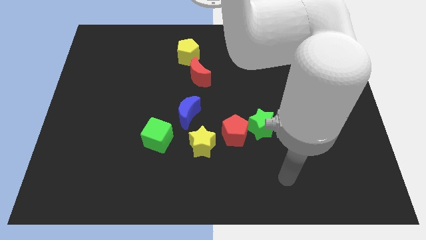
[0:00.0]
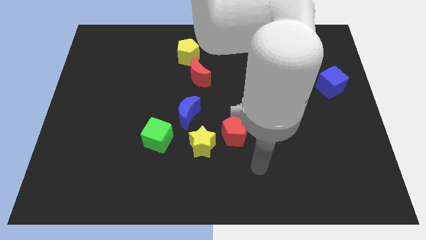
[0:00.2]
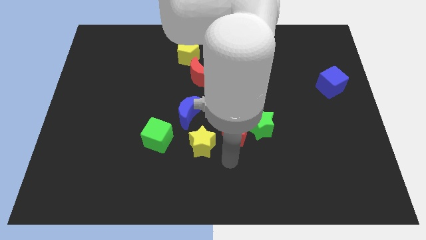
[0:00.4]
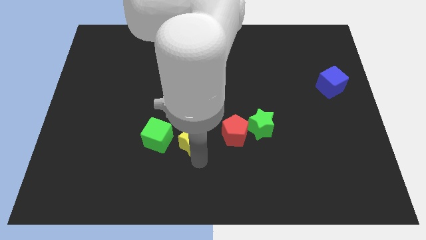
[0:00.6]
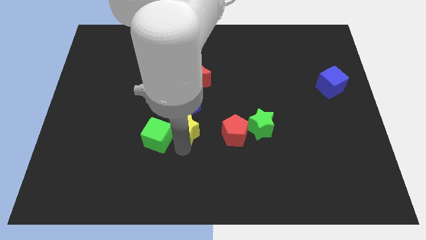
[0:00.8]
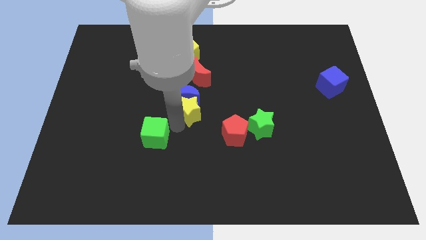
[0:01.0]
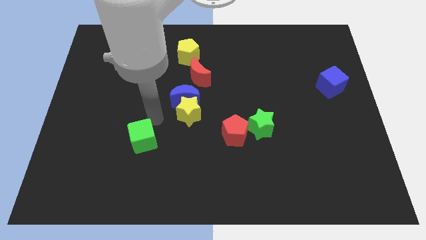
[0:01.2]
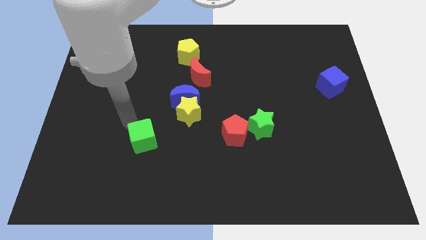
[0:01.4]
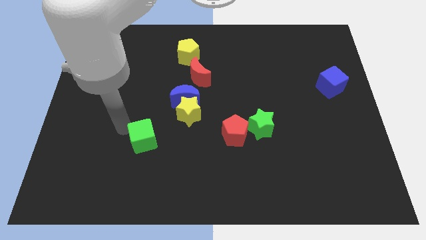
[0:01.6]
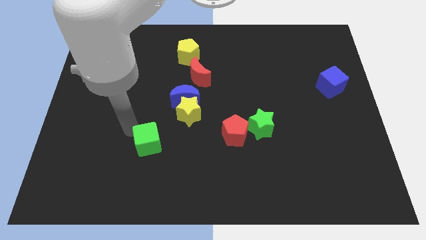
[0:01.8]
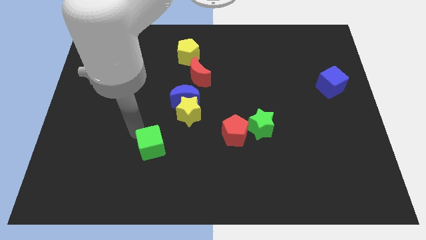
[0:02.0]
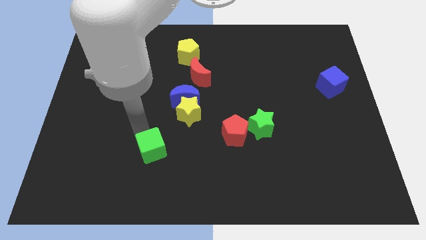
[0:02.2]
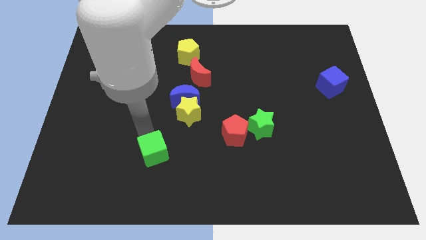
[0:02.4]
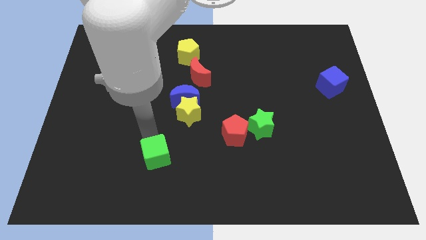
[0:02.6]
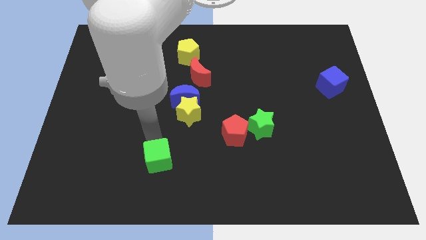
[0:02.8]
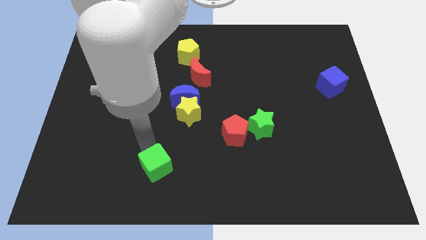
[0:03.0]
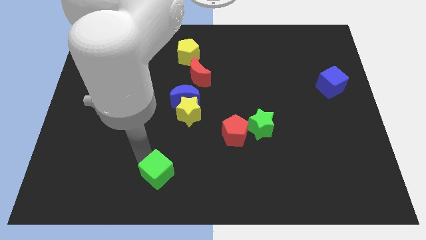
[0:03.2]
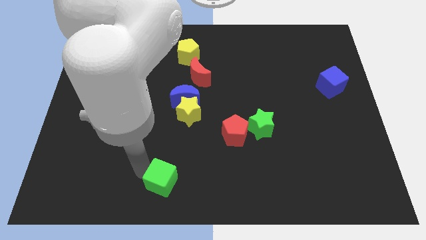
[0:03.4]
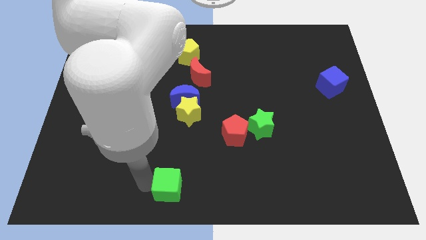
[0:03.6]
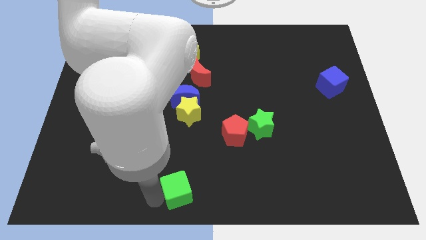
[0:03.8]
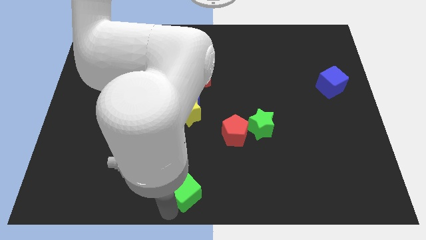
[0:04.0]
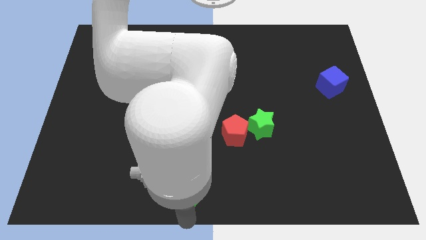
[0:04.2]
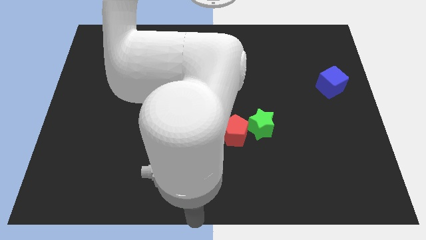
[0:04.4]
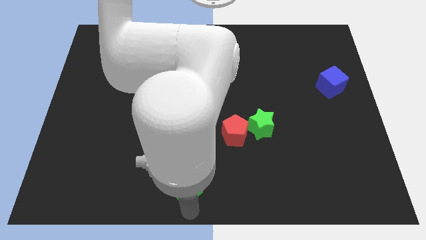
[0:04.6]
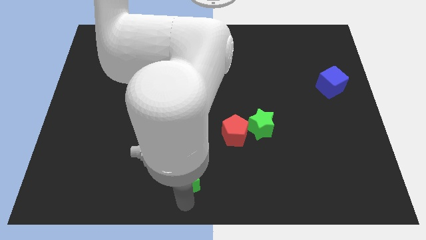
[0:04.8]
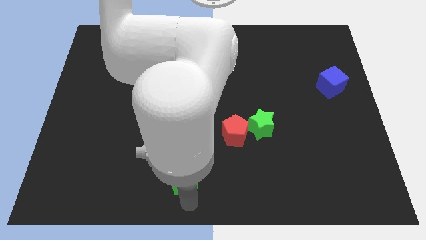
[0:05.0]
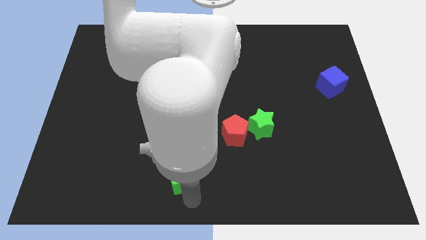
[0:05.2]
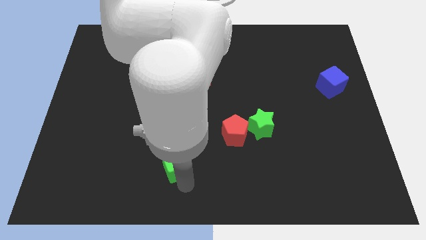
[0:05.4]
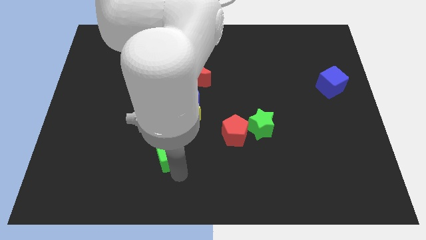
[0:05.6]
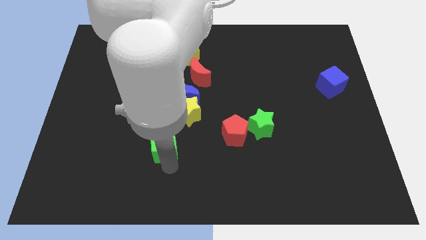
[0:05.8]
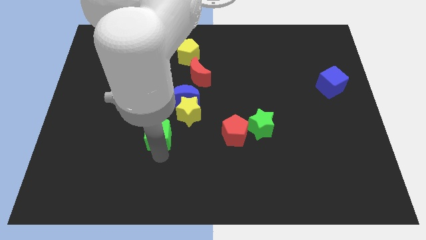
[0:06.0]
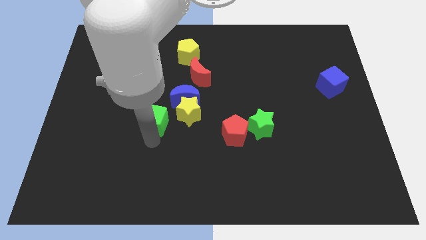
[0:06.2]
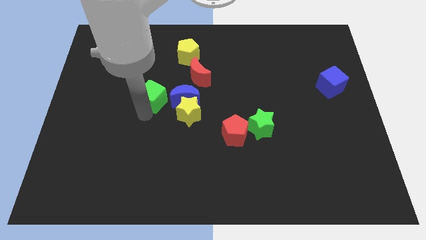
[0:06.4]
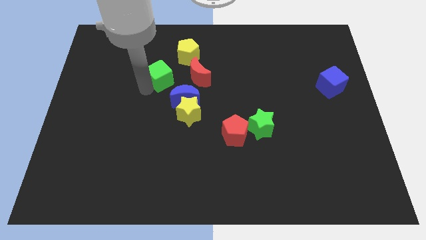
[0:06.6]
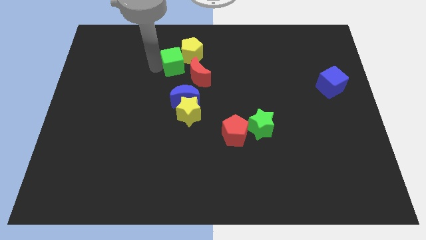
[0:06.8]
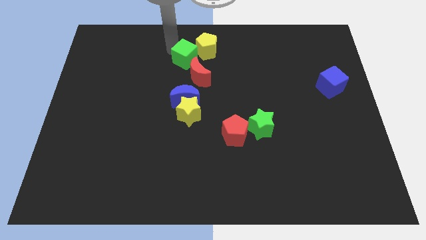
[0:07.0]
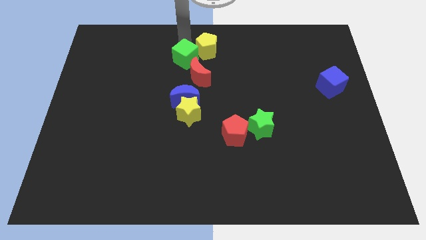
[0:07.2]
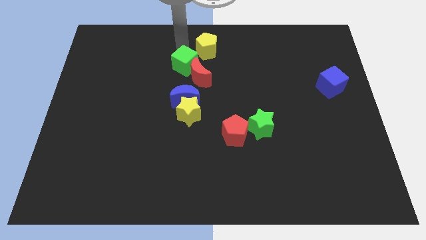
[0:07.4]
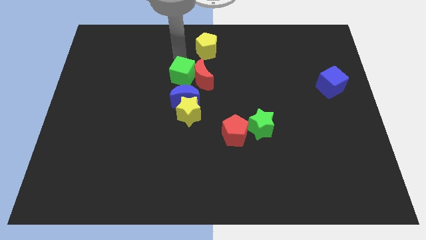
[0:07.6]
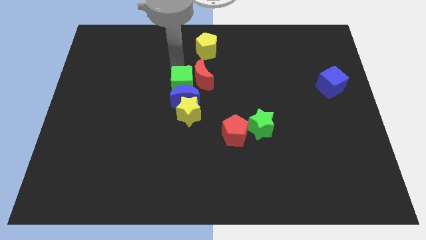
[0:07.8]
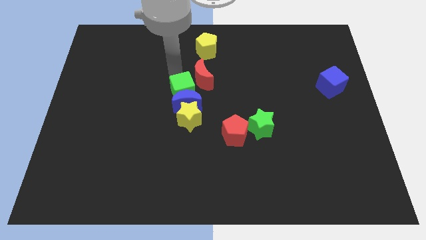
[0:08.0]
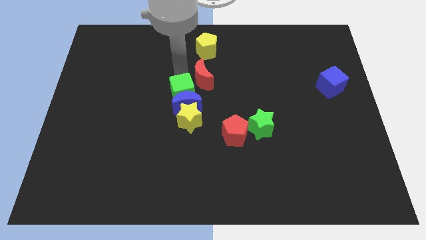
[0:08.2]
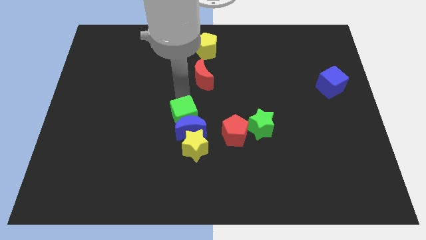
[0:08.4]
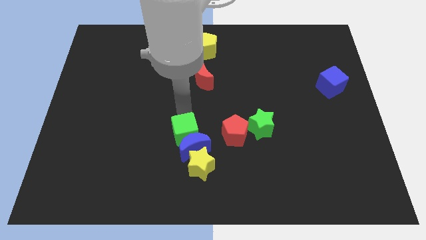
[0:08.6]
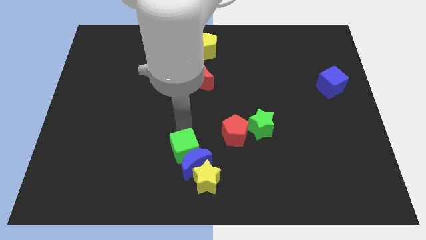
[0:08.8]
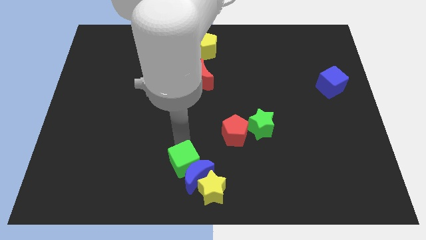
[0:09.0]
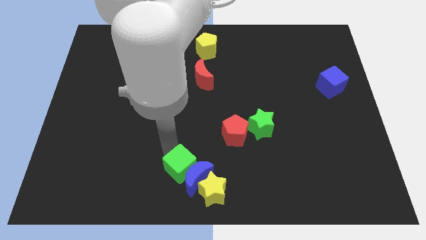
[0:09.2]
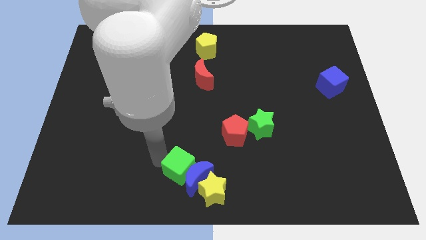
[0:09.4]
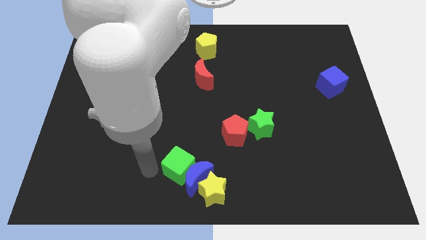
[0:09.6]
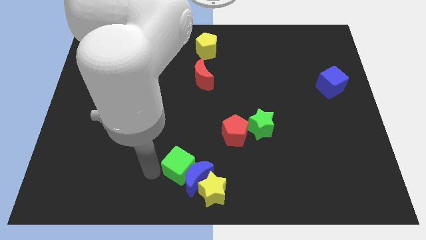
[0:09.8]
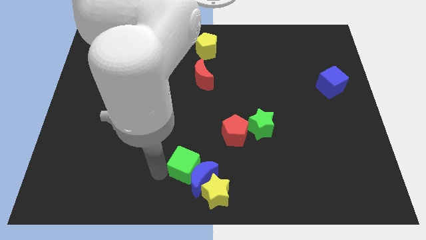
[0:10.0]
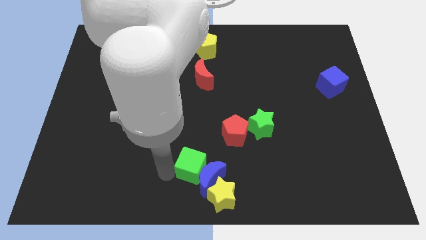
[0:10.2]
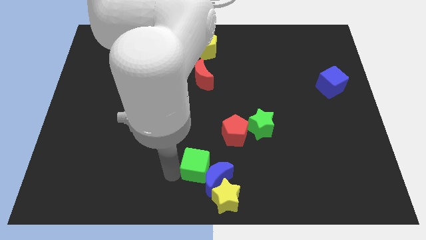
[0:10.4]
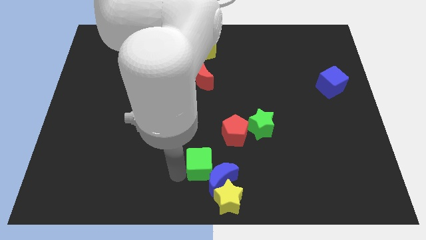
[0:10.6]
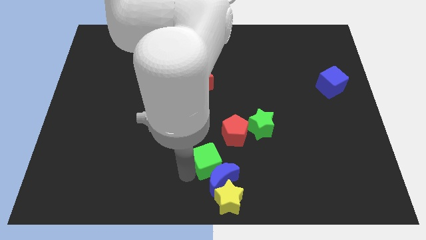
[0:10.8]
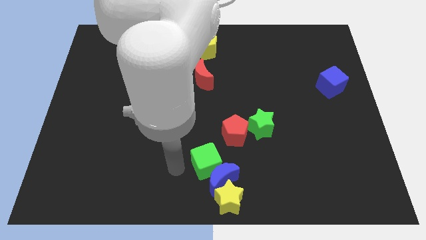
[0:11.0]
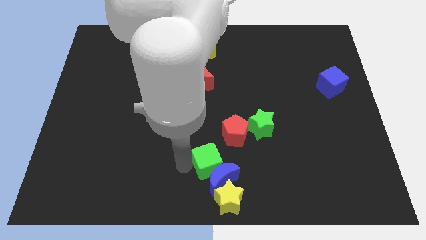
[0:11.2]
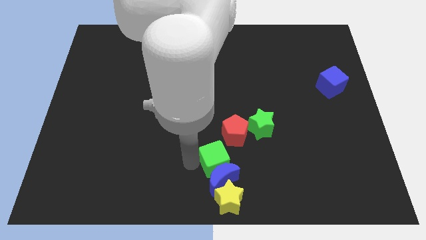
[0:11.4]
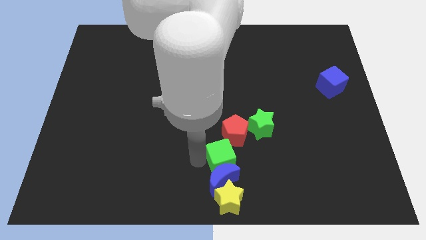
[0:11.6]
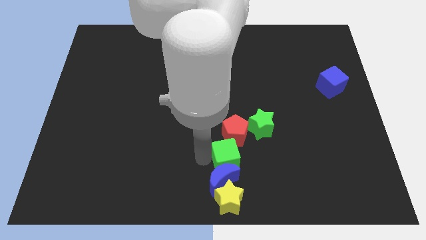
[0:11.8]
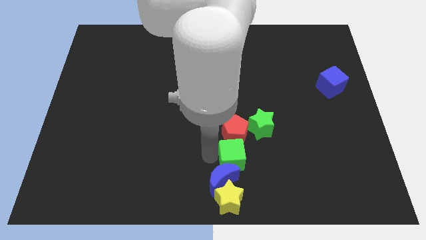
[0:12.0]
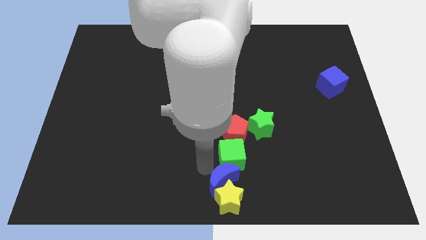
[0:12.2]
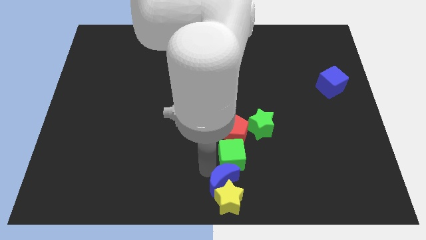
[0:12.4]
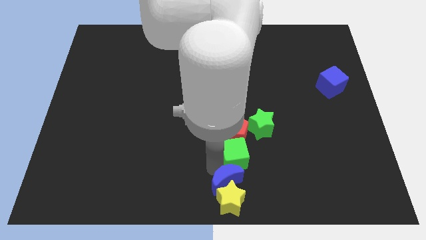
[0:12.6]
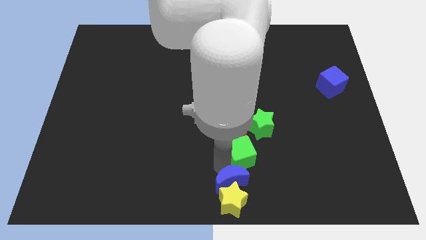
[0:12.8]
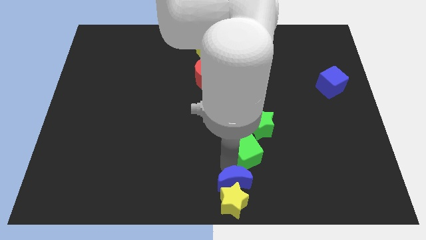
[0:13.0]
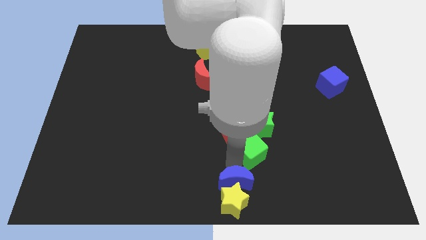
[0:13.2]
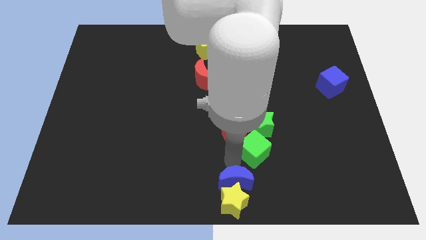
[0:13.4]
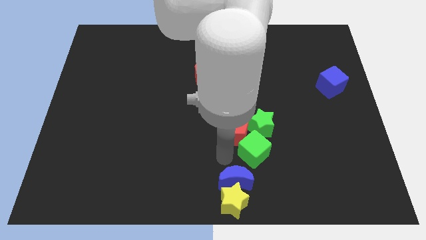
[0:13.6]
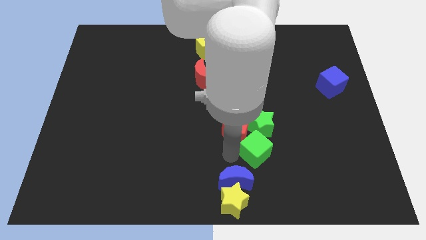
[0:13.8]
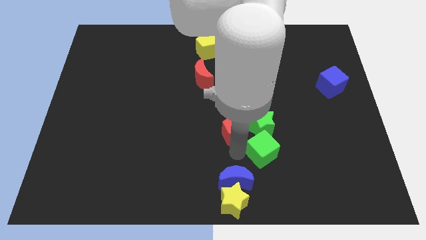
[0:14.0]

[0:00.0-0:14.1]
move the green cube diagonally down and to the right of the green star

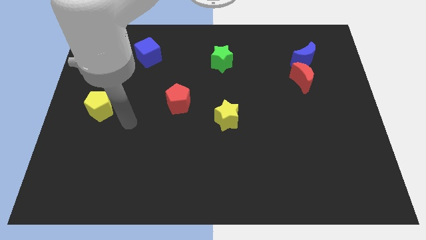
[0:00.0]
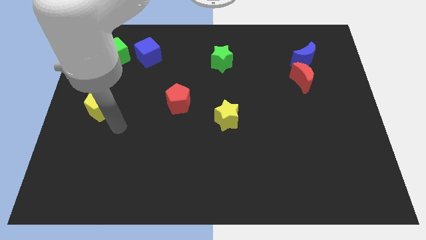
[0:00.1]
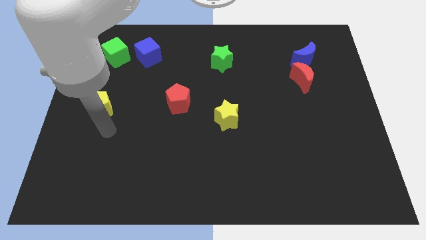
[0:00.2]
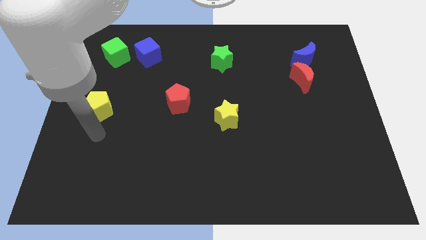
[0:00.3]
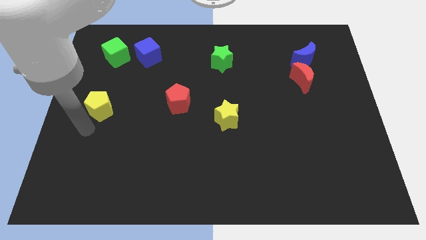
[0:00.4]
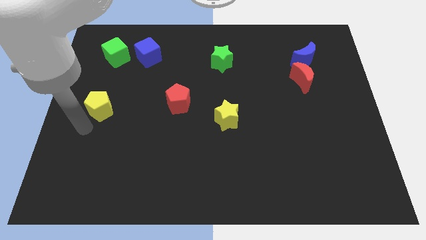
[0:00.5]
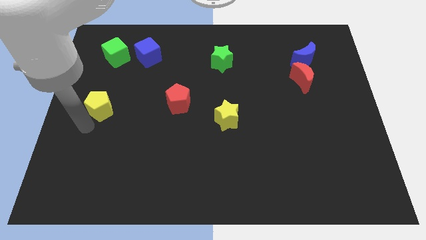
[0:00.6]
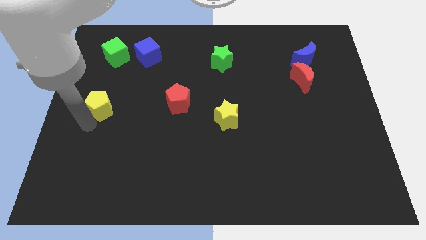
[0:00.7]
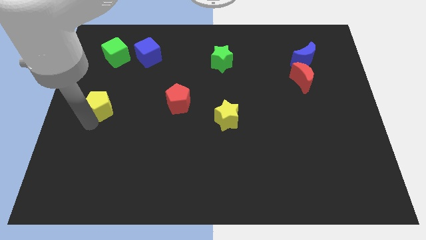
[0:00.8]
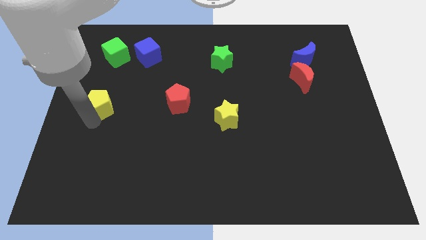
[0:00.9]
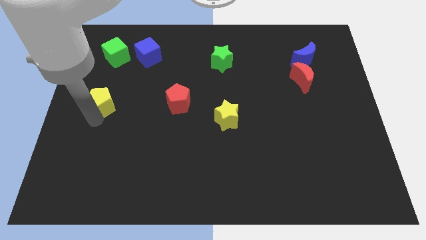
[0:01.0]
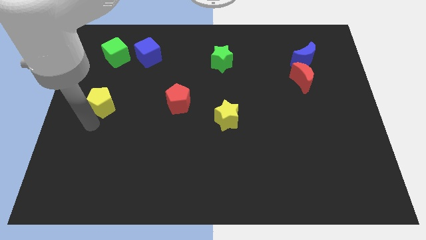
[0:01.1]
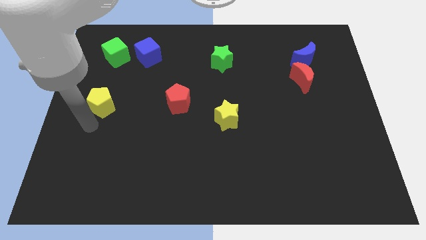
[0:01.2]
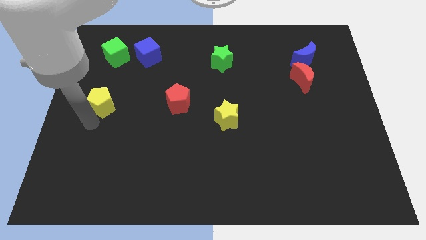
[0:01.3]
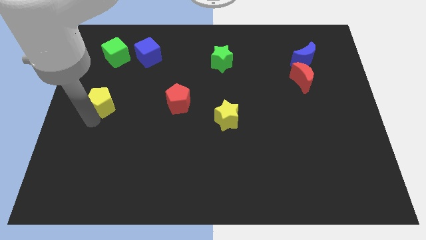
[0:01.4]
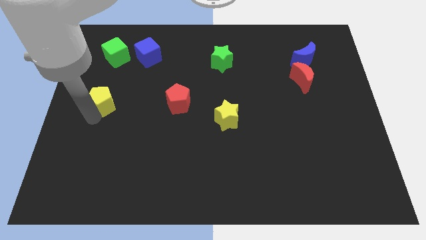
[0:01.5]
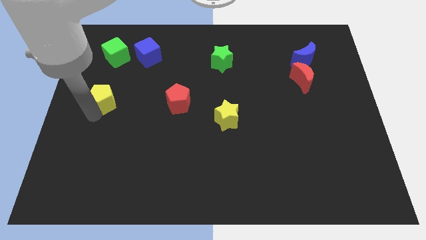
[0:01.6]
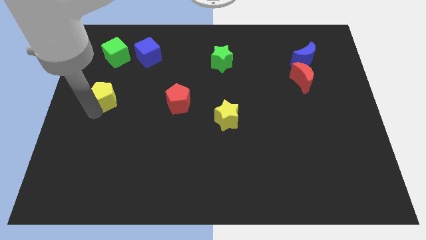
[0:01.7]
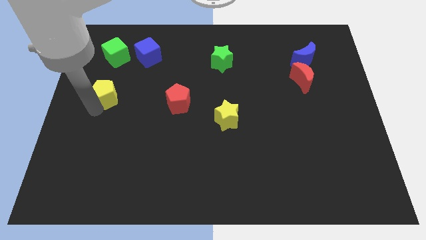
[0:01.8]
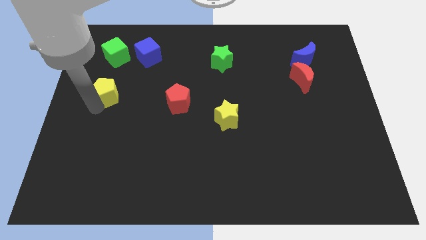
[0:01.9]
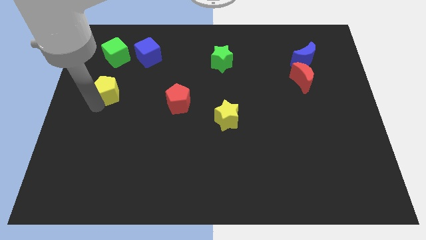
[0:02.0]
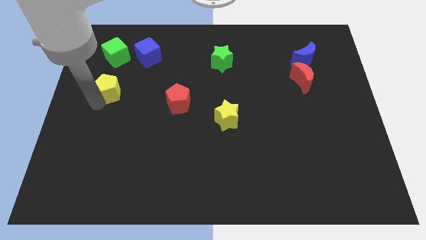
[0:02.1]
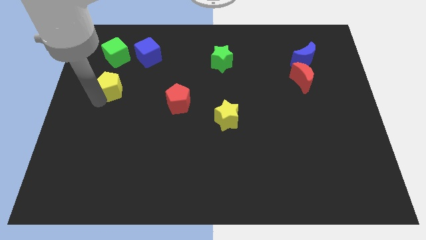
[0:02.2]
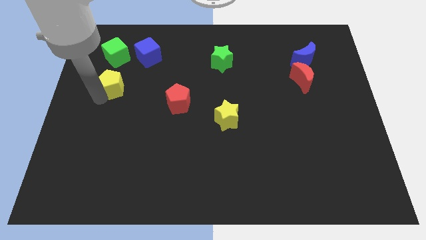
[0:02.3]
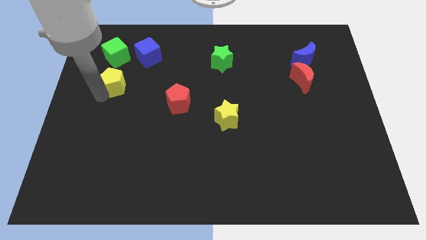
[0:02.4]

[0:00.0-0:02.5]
push the yellow pentagon diagonally down and to the left of the blue cube
